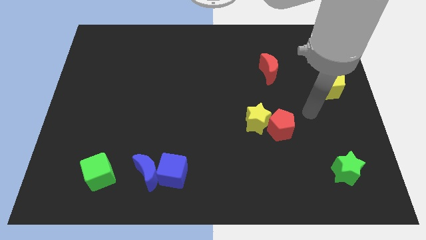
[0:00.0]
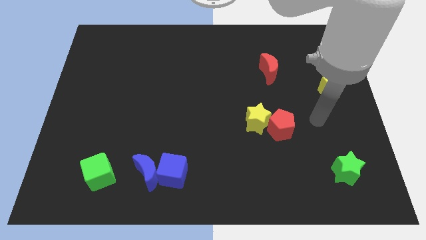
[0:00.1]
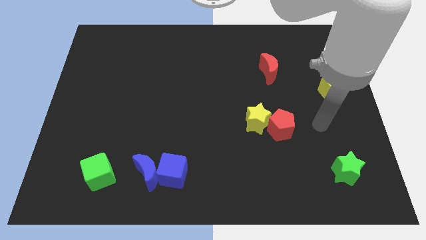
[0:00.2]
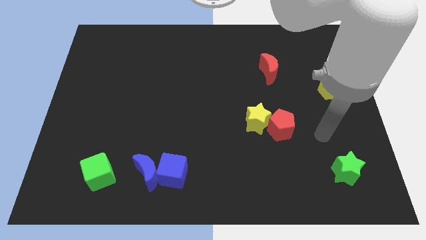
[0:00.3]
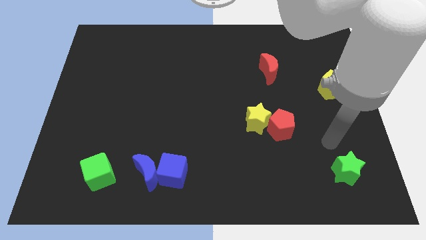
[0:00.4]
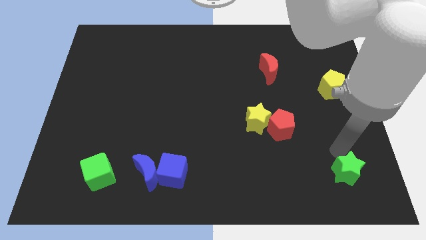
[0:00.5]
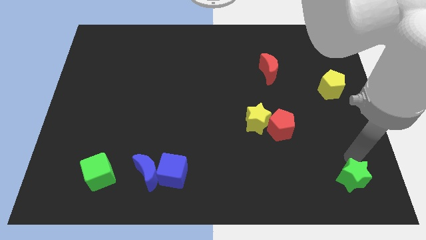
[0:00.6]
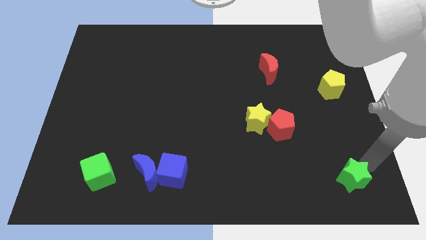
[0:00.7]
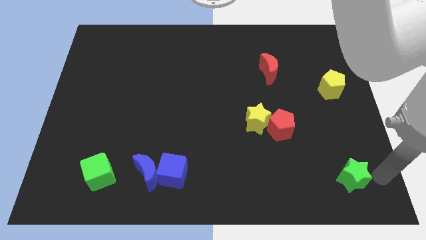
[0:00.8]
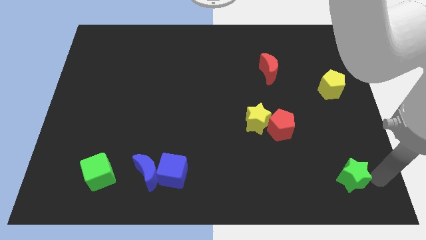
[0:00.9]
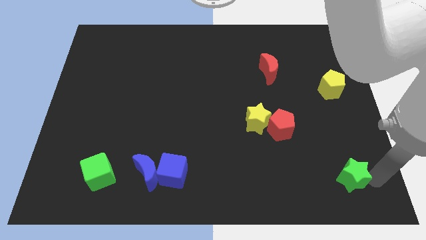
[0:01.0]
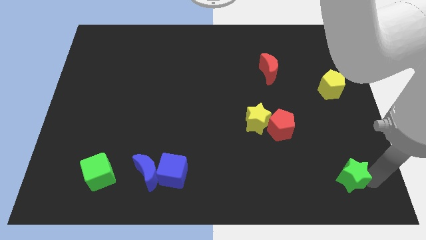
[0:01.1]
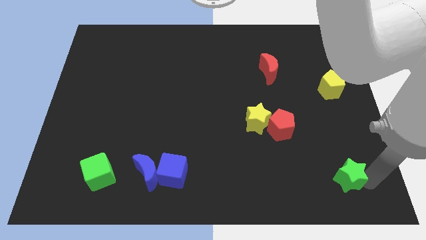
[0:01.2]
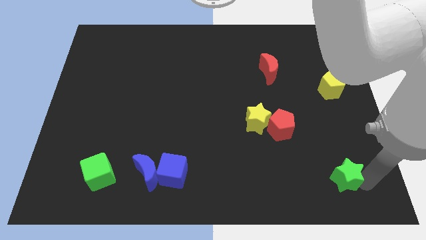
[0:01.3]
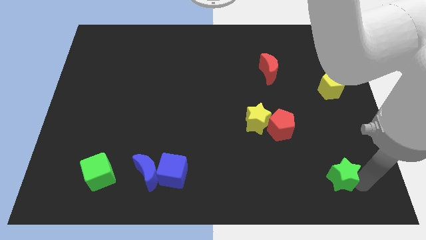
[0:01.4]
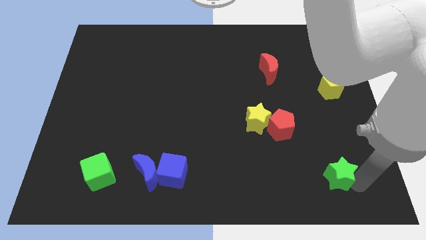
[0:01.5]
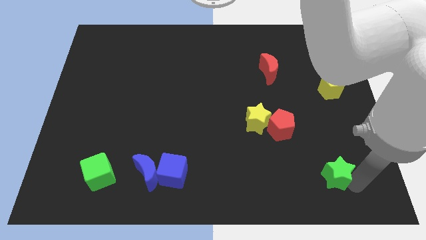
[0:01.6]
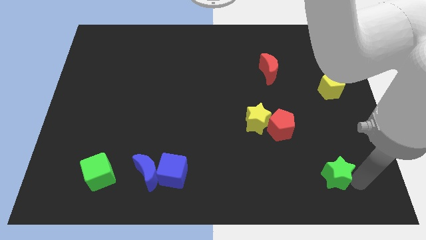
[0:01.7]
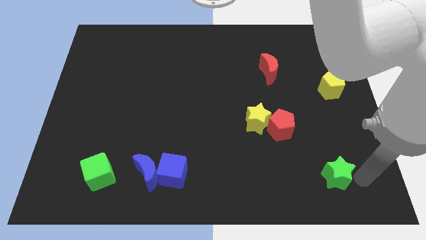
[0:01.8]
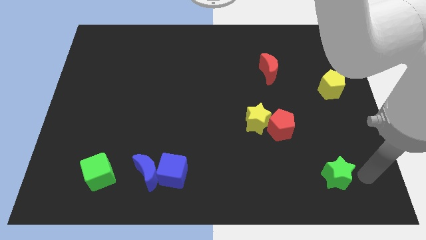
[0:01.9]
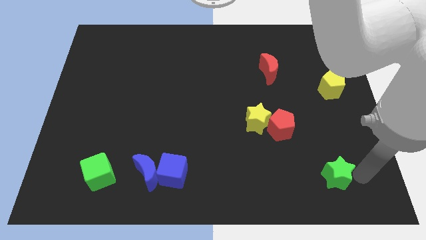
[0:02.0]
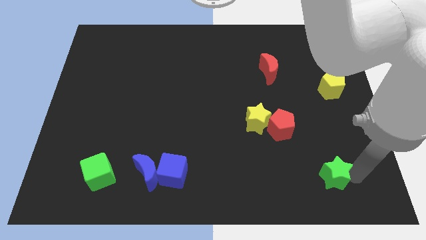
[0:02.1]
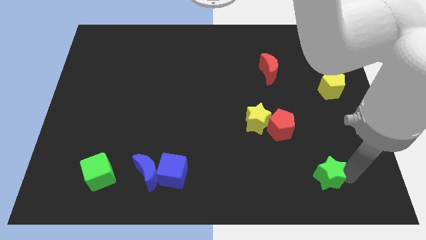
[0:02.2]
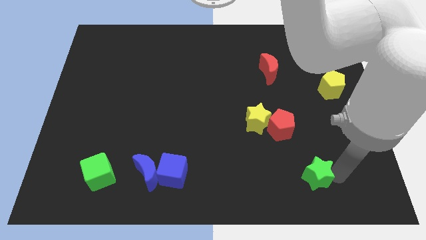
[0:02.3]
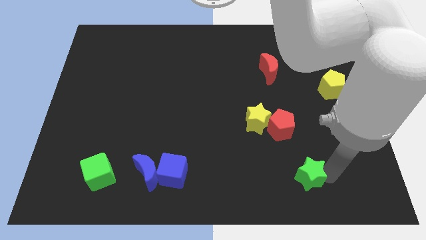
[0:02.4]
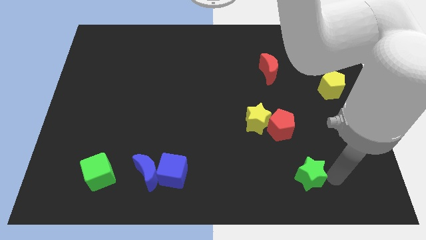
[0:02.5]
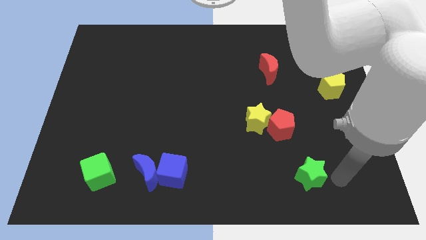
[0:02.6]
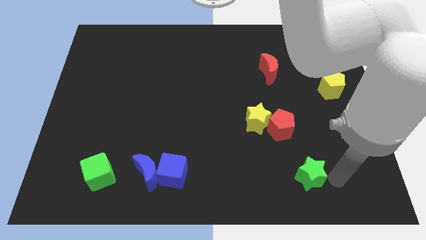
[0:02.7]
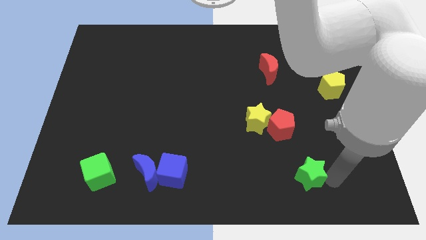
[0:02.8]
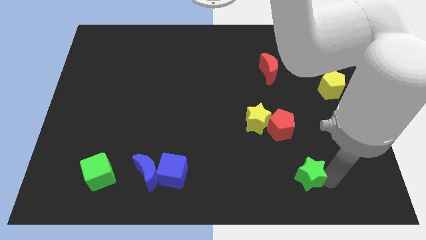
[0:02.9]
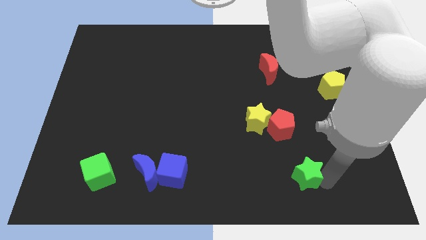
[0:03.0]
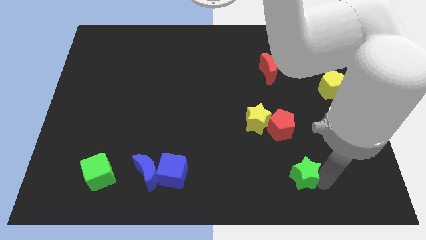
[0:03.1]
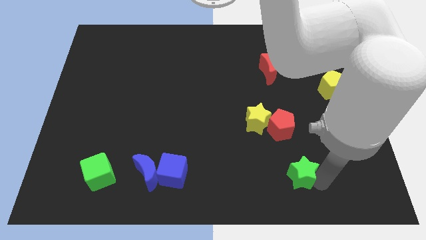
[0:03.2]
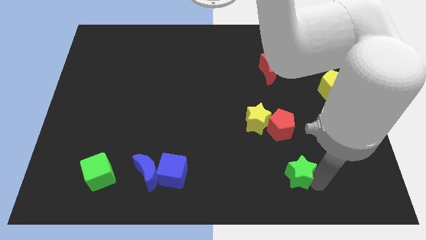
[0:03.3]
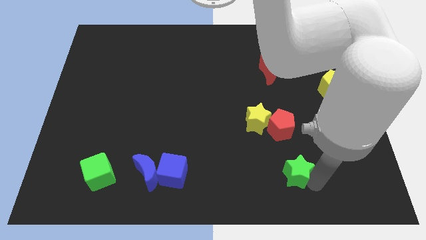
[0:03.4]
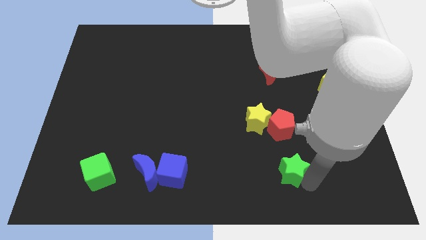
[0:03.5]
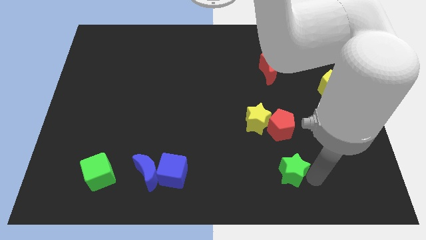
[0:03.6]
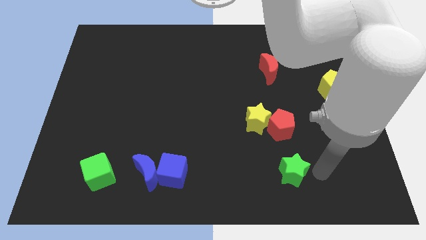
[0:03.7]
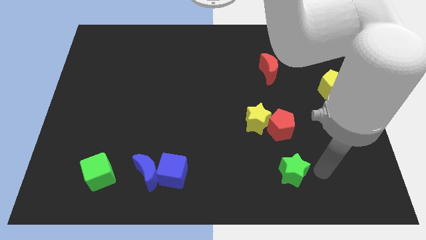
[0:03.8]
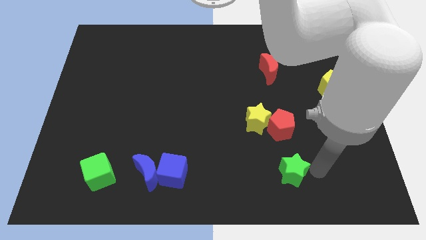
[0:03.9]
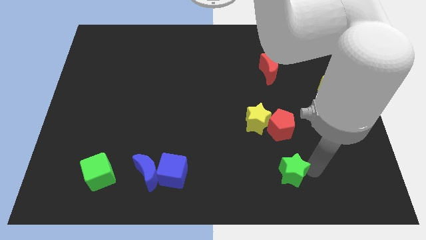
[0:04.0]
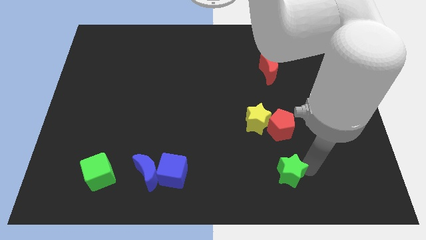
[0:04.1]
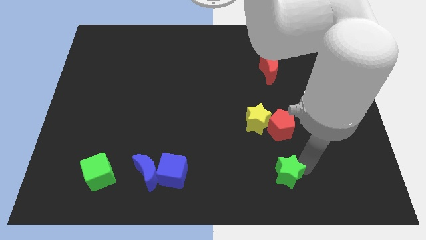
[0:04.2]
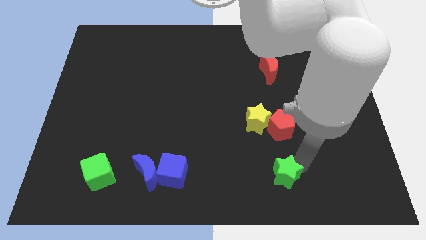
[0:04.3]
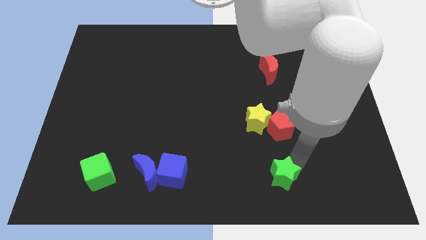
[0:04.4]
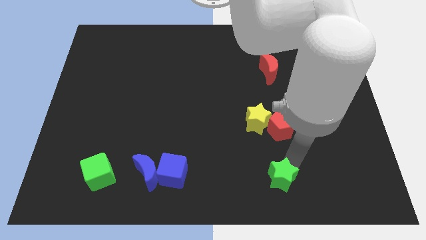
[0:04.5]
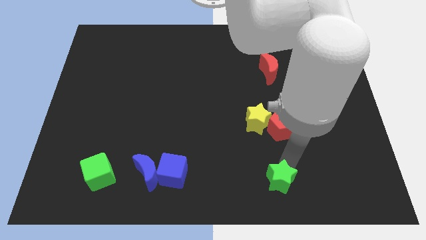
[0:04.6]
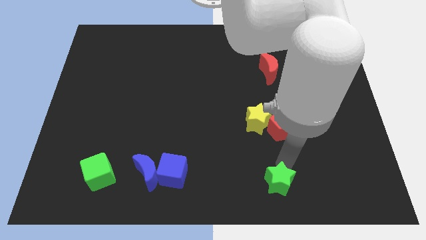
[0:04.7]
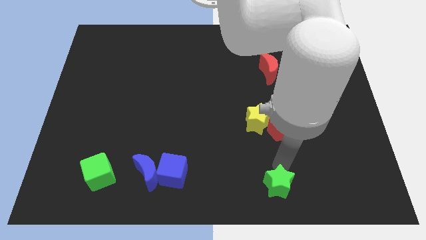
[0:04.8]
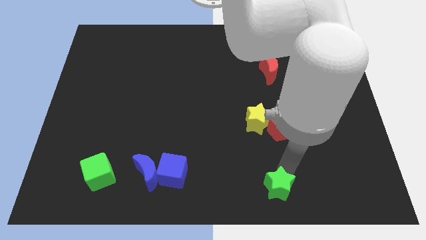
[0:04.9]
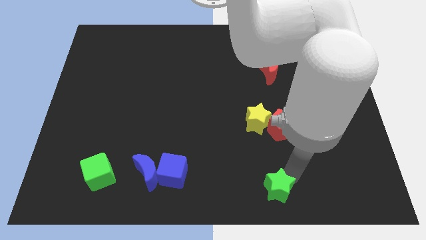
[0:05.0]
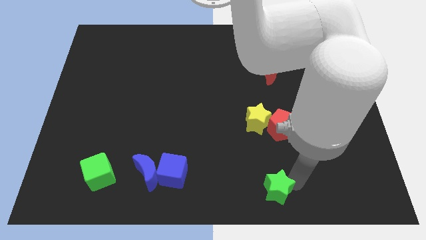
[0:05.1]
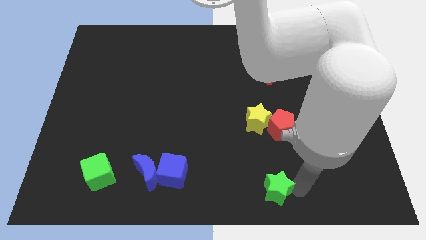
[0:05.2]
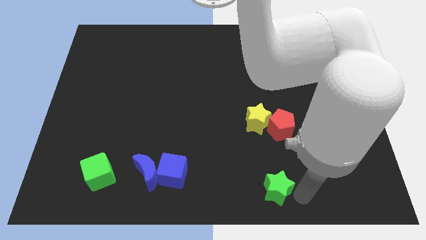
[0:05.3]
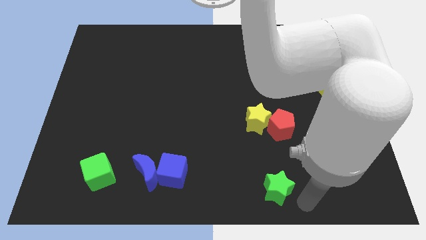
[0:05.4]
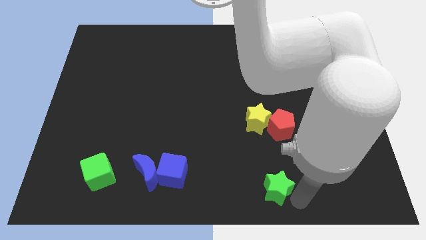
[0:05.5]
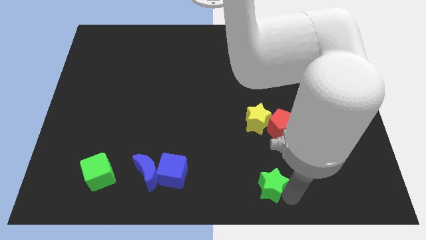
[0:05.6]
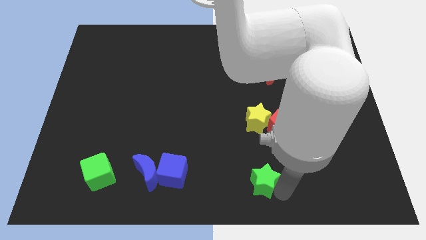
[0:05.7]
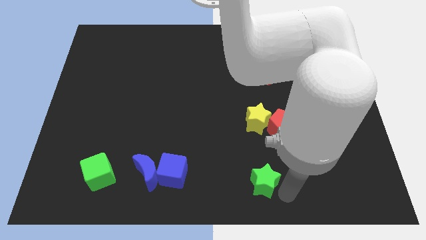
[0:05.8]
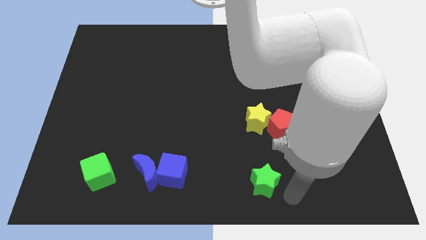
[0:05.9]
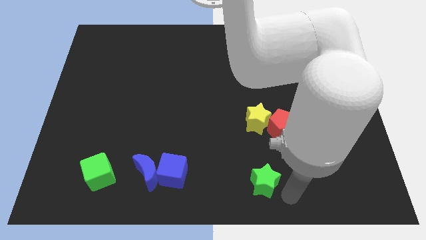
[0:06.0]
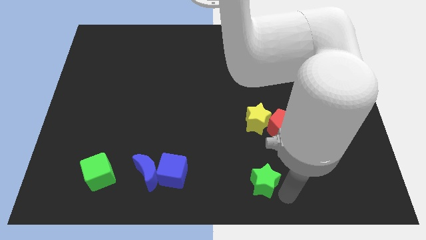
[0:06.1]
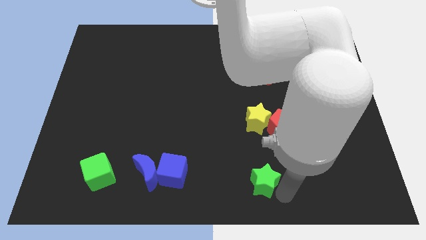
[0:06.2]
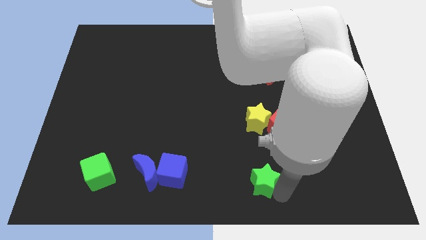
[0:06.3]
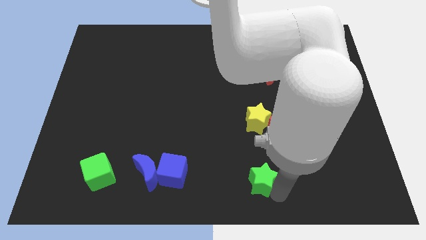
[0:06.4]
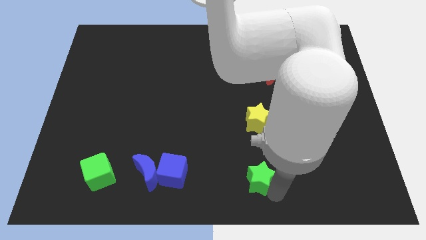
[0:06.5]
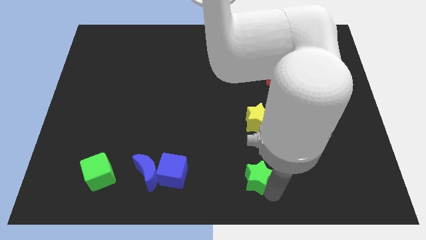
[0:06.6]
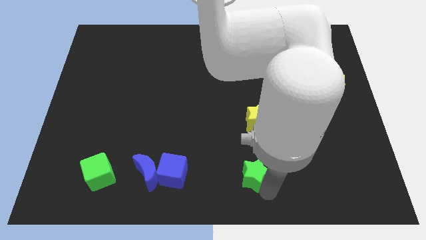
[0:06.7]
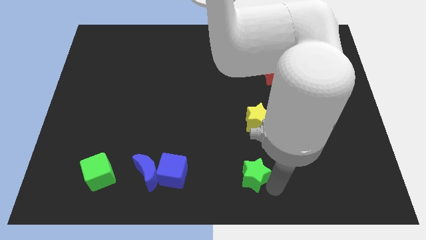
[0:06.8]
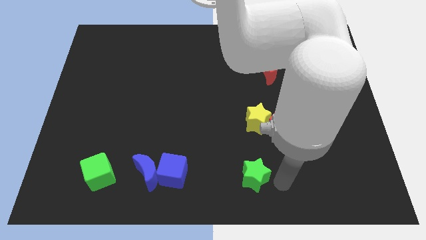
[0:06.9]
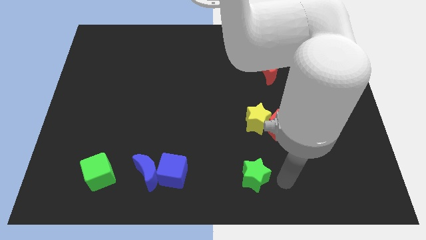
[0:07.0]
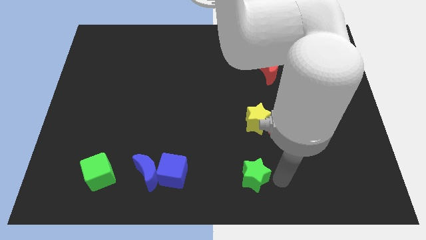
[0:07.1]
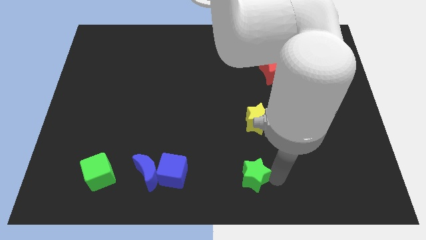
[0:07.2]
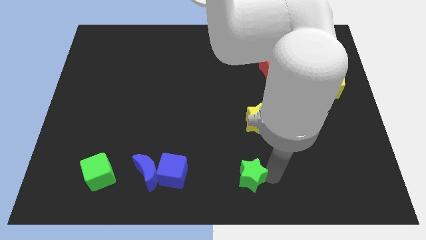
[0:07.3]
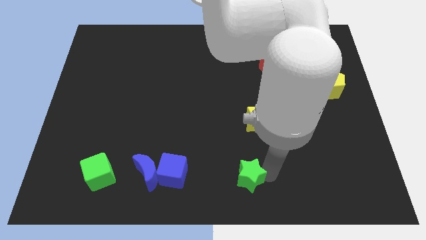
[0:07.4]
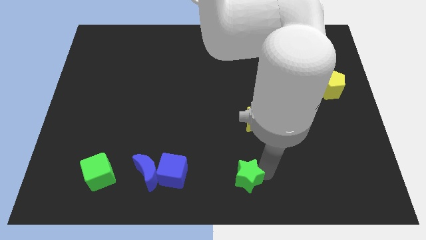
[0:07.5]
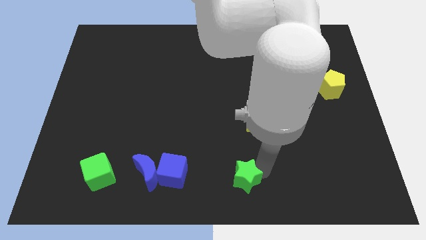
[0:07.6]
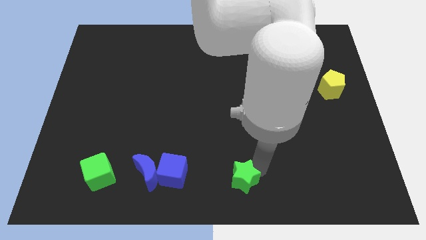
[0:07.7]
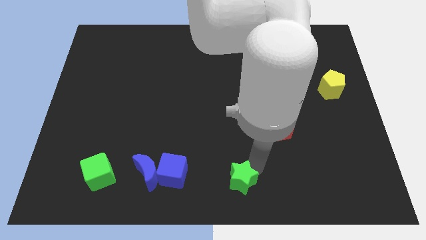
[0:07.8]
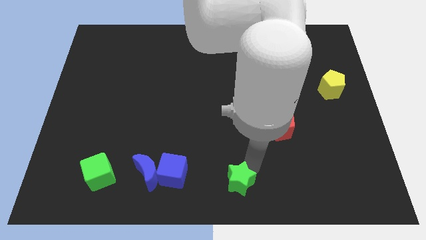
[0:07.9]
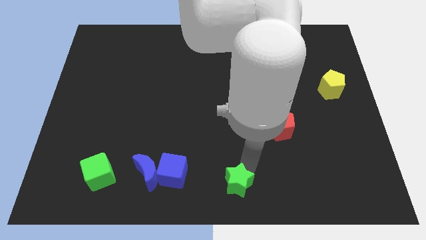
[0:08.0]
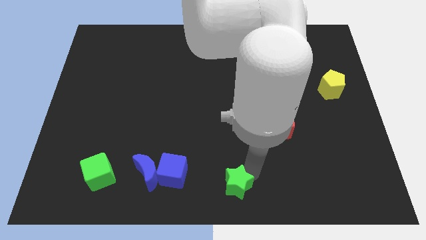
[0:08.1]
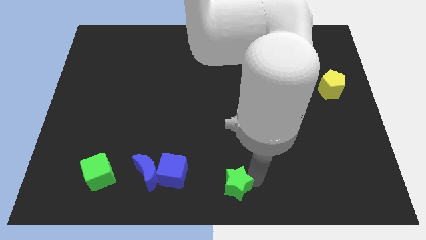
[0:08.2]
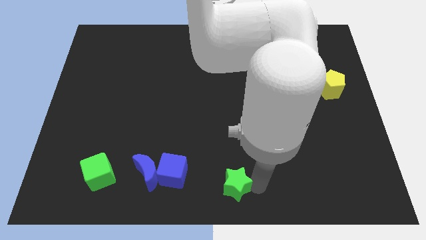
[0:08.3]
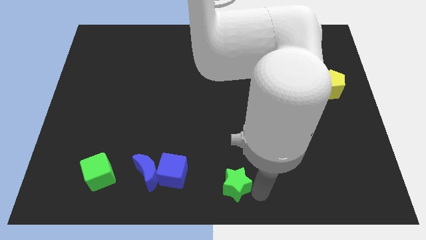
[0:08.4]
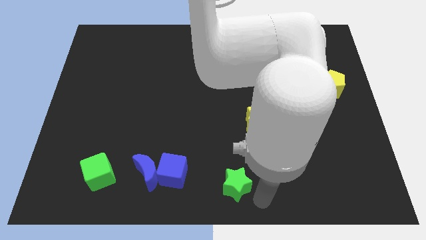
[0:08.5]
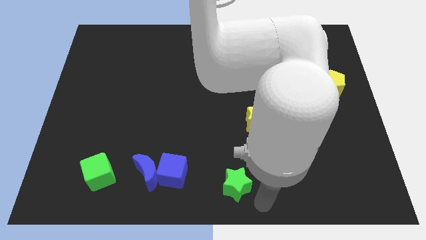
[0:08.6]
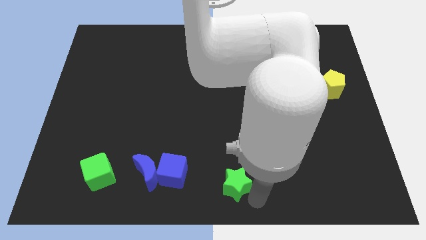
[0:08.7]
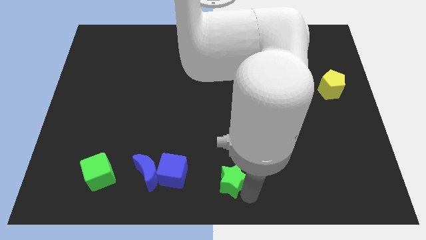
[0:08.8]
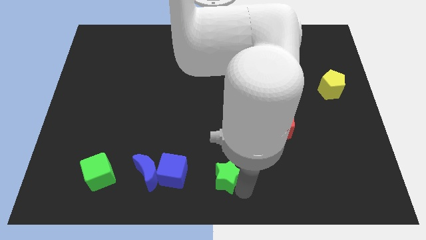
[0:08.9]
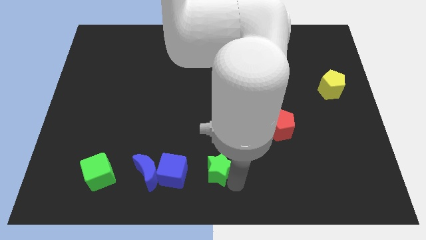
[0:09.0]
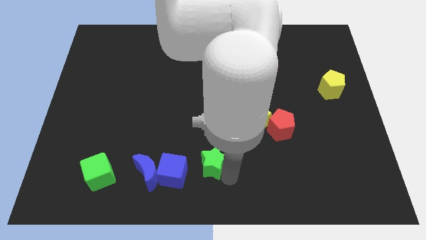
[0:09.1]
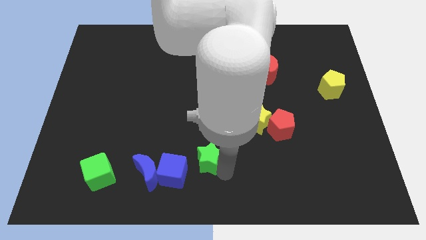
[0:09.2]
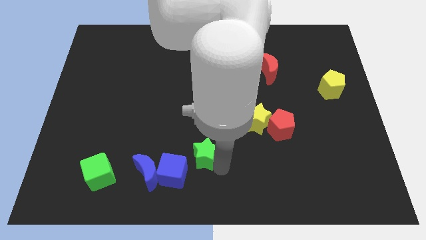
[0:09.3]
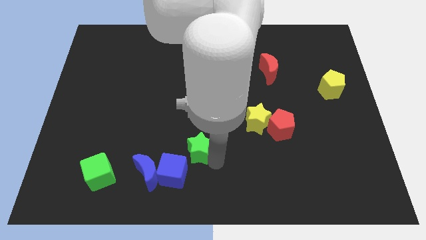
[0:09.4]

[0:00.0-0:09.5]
push the green star to the top right side of the blue moon
